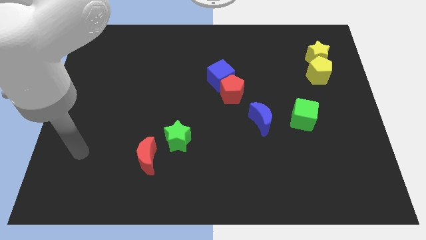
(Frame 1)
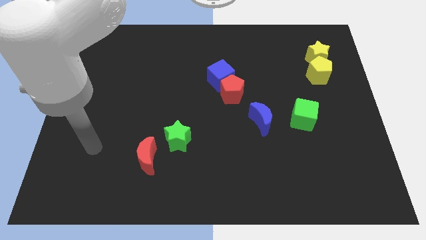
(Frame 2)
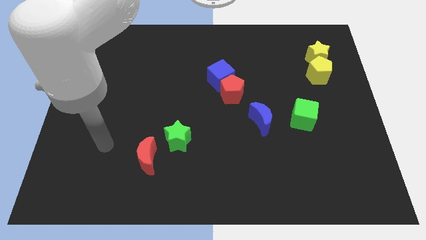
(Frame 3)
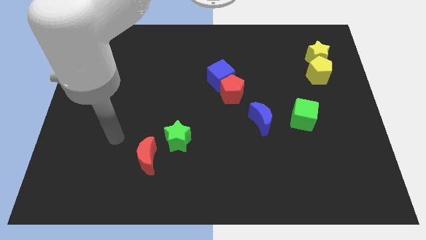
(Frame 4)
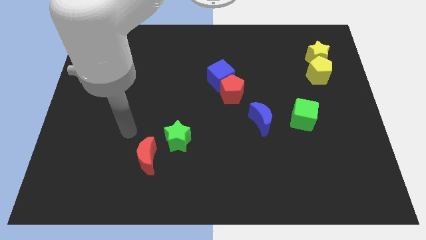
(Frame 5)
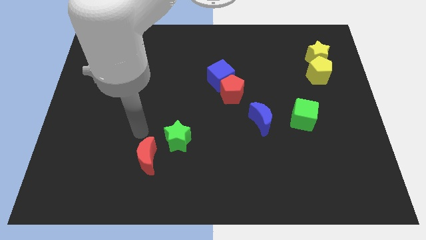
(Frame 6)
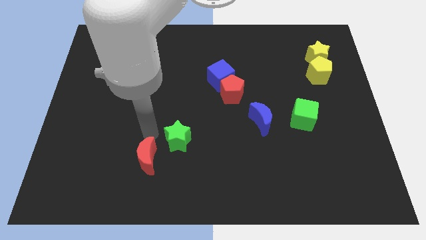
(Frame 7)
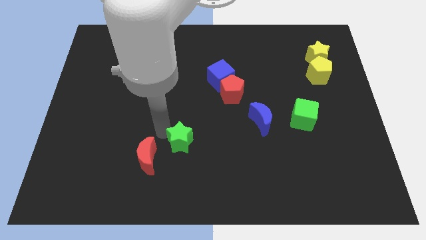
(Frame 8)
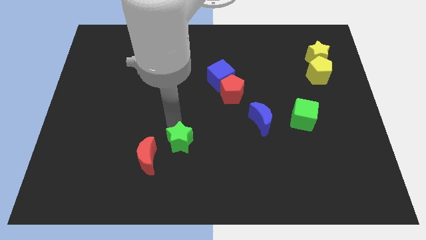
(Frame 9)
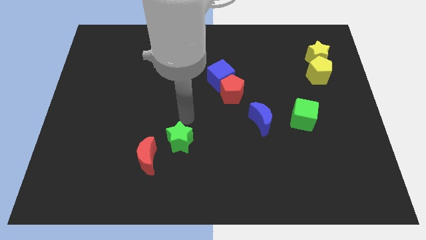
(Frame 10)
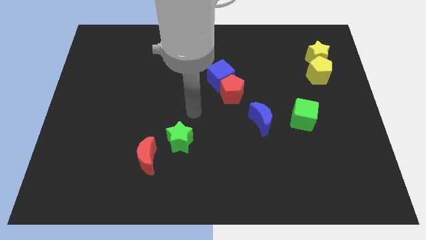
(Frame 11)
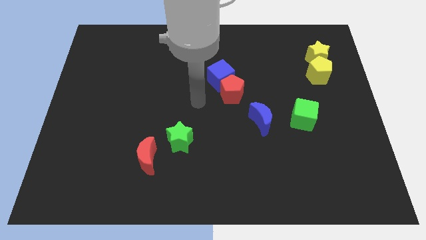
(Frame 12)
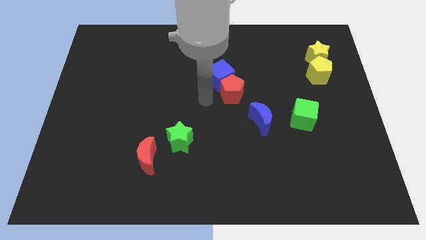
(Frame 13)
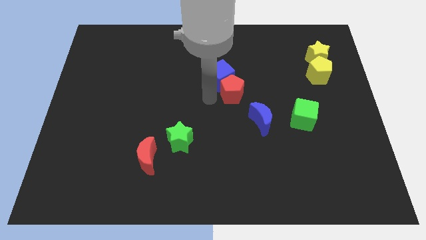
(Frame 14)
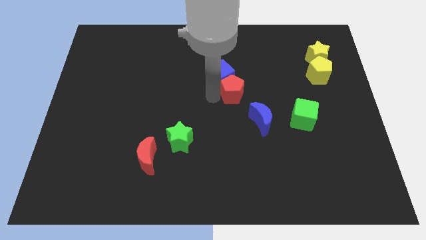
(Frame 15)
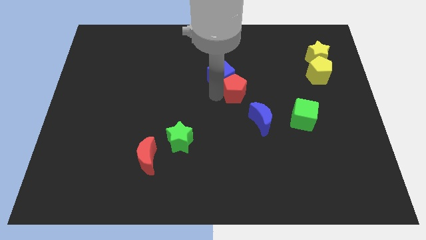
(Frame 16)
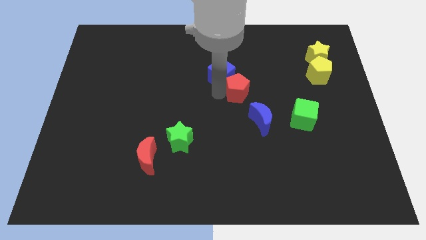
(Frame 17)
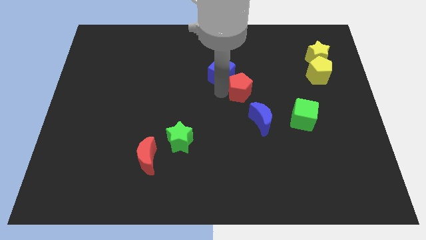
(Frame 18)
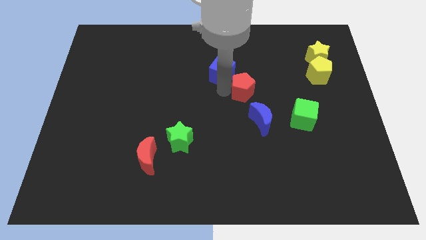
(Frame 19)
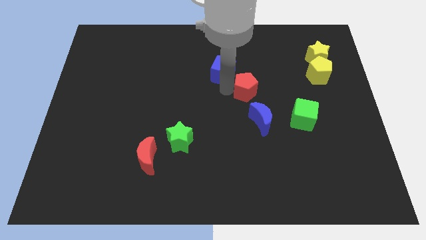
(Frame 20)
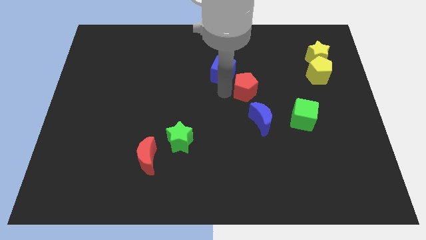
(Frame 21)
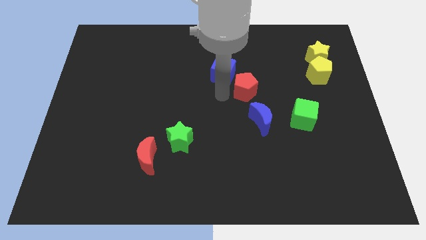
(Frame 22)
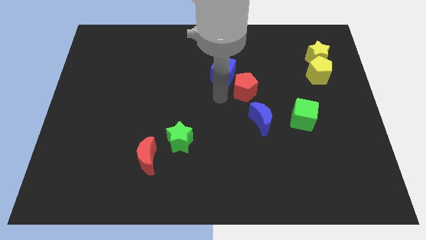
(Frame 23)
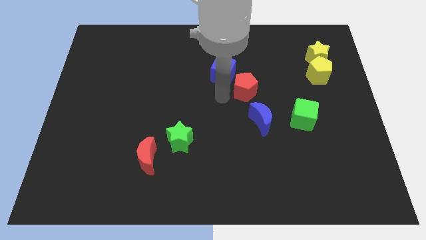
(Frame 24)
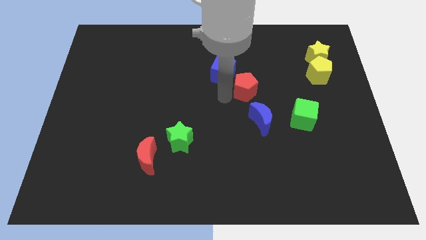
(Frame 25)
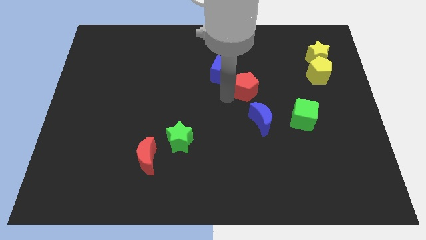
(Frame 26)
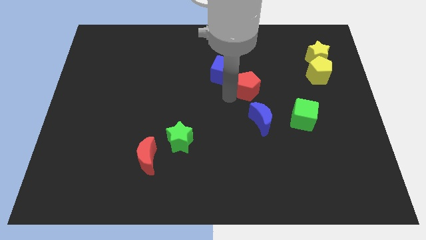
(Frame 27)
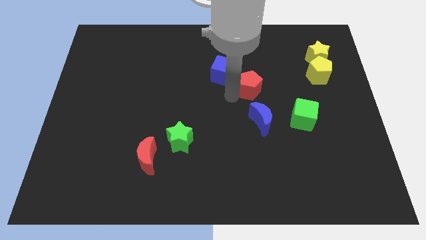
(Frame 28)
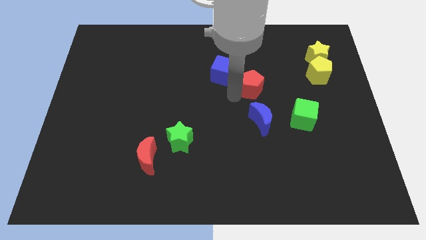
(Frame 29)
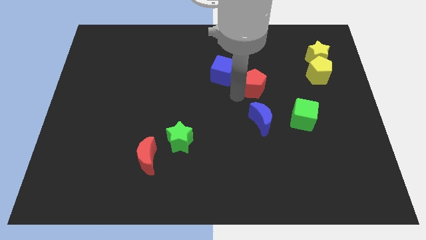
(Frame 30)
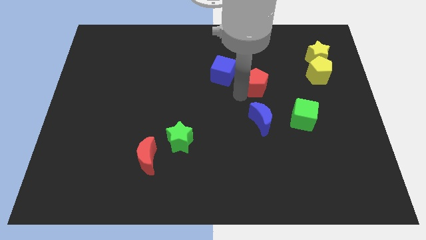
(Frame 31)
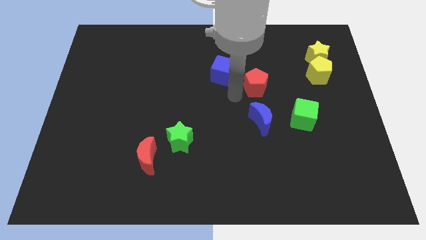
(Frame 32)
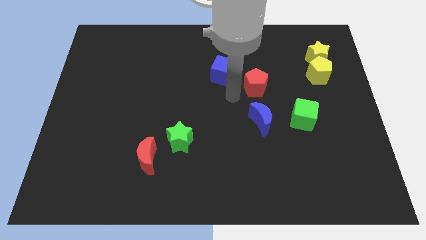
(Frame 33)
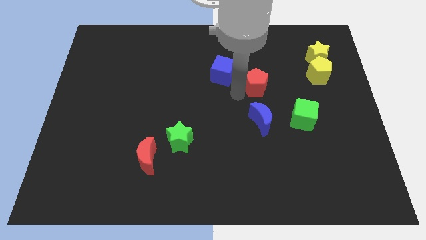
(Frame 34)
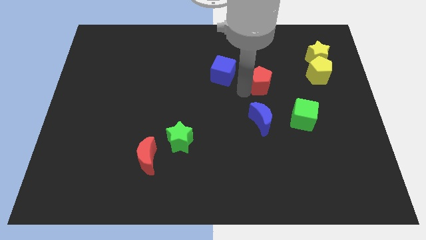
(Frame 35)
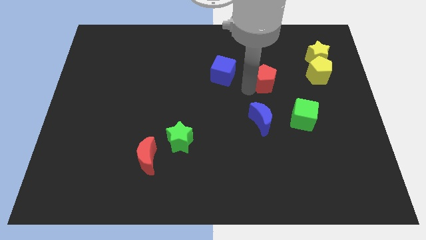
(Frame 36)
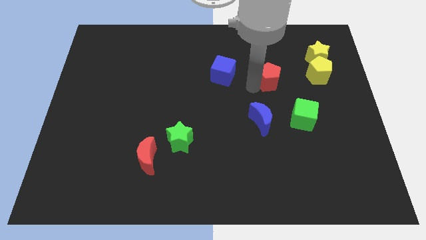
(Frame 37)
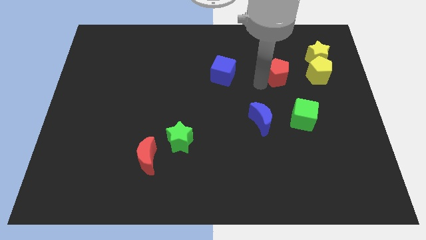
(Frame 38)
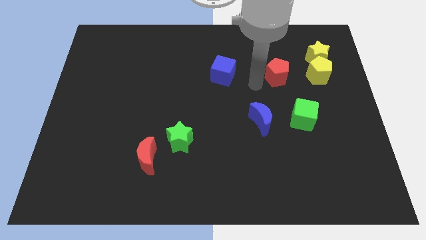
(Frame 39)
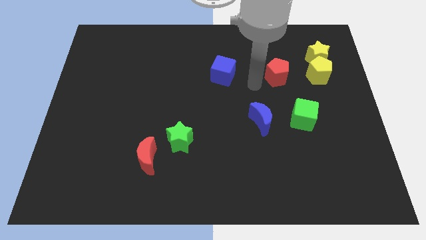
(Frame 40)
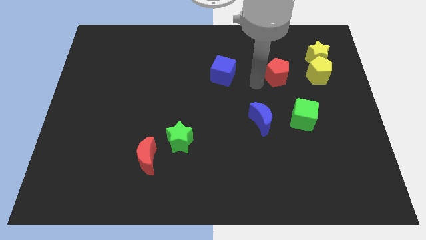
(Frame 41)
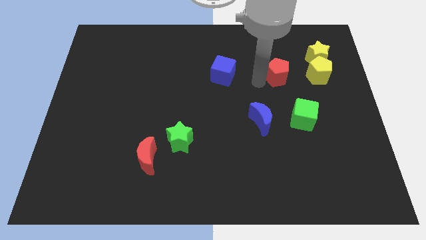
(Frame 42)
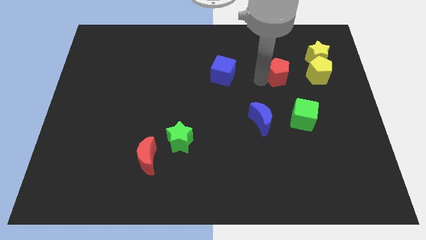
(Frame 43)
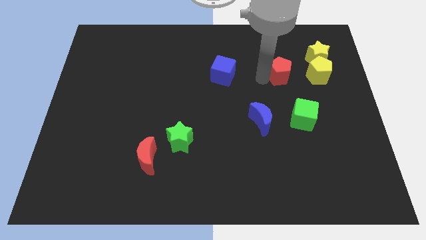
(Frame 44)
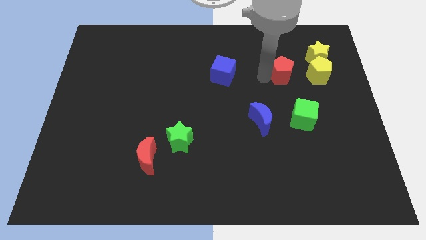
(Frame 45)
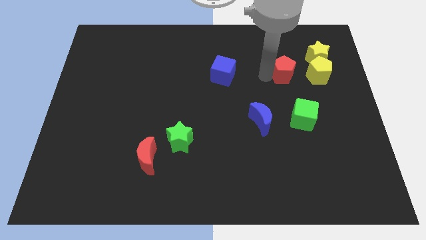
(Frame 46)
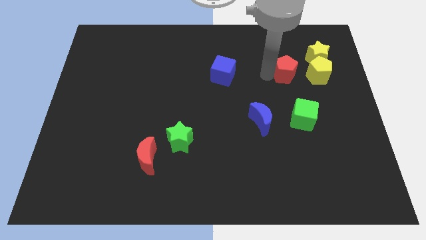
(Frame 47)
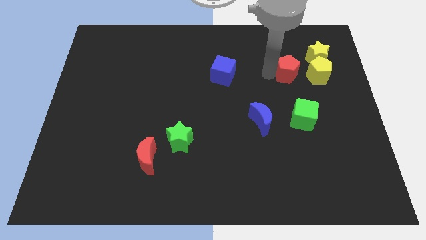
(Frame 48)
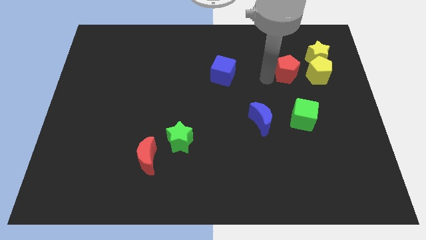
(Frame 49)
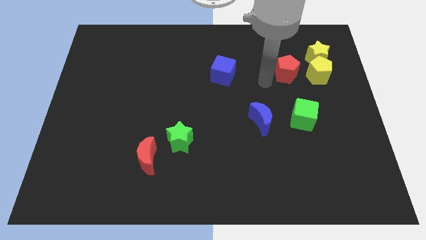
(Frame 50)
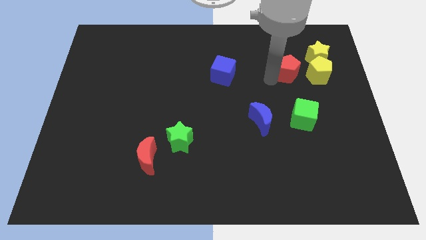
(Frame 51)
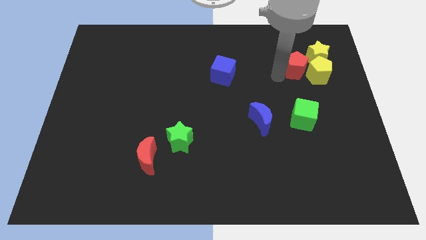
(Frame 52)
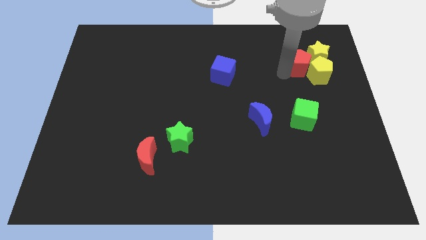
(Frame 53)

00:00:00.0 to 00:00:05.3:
push the red pentagon towards the yellow star
